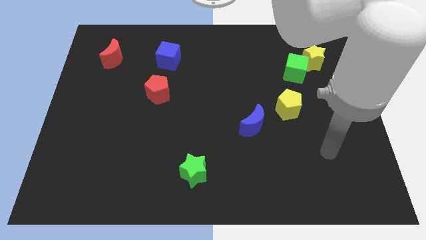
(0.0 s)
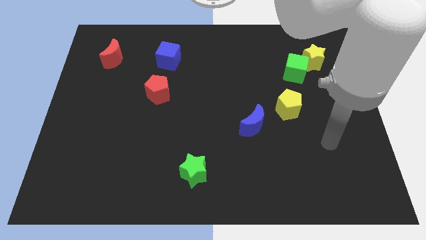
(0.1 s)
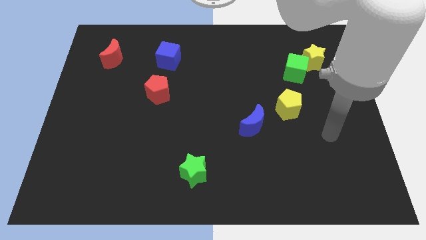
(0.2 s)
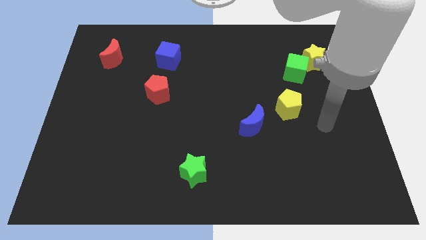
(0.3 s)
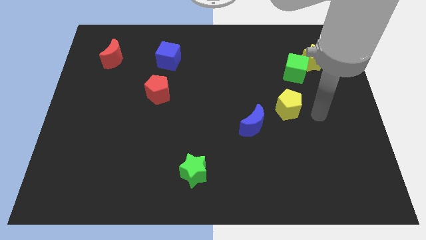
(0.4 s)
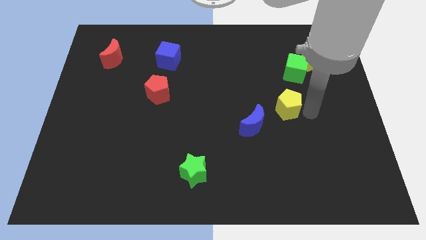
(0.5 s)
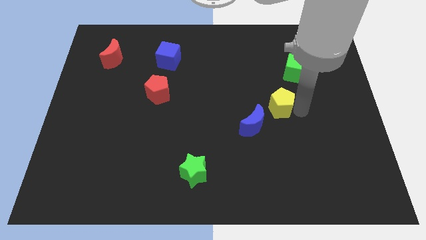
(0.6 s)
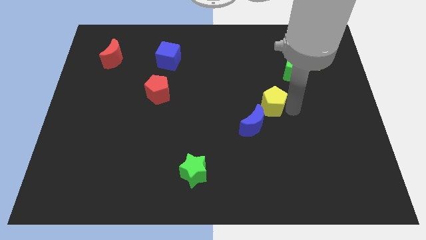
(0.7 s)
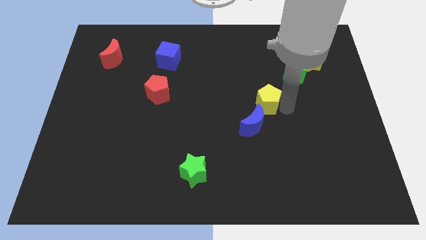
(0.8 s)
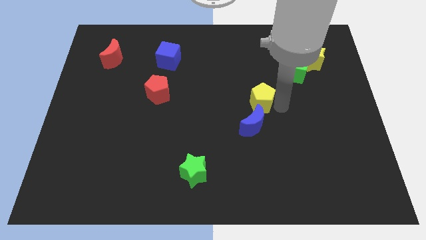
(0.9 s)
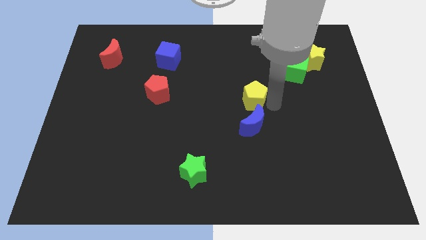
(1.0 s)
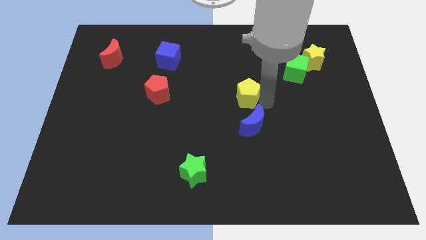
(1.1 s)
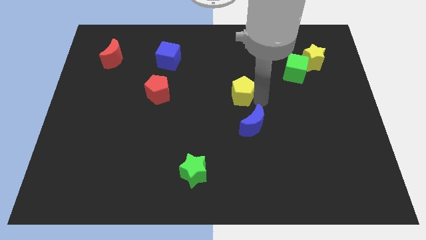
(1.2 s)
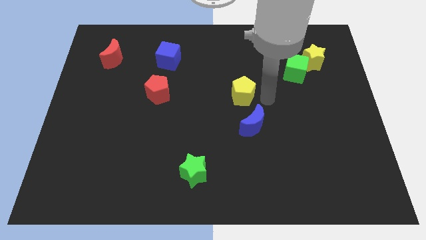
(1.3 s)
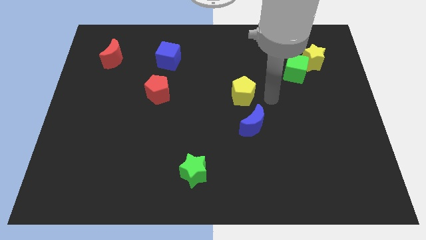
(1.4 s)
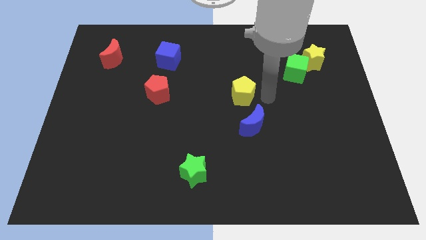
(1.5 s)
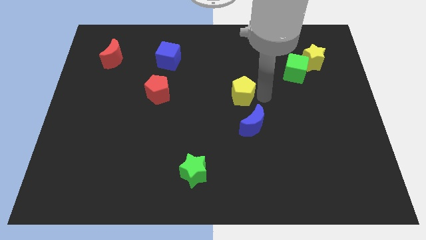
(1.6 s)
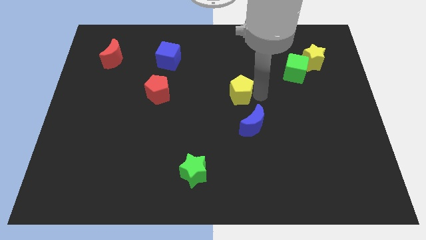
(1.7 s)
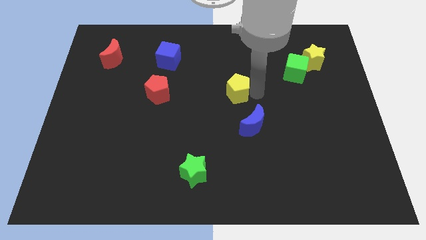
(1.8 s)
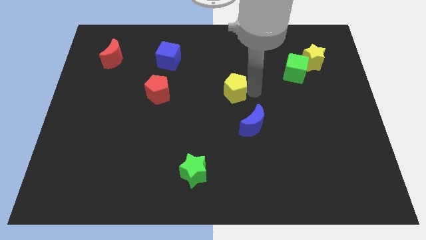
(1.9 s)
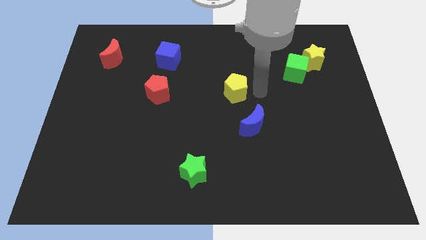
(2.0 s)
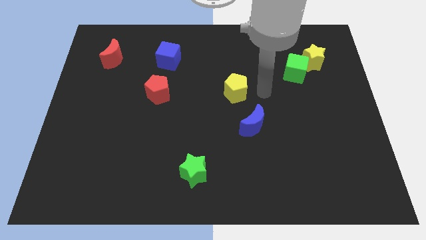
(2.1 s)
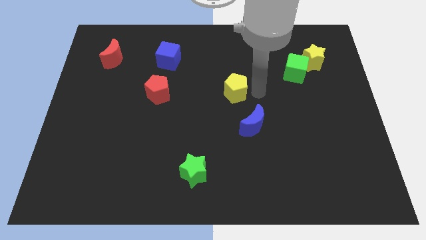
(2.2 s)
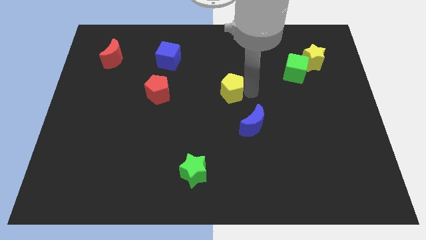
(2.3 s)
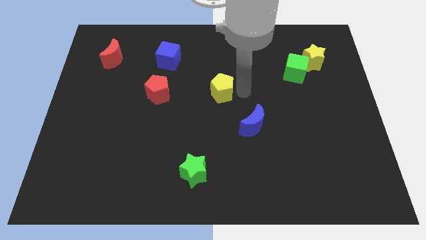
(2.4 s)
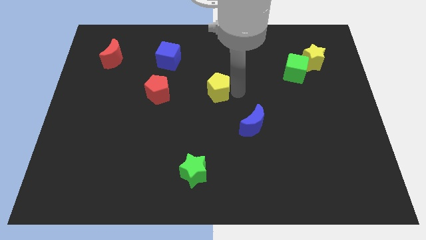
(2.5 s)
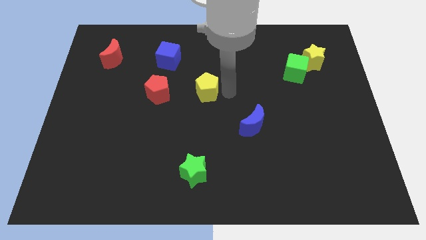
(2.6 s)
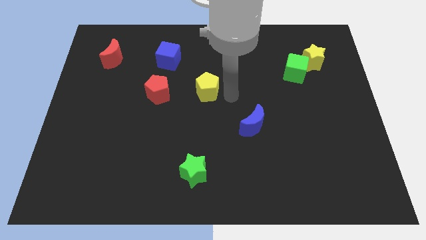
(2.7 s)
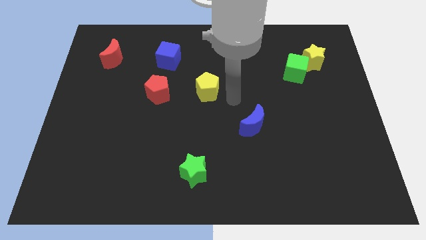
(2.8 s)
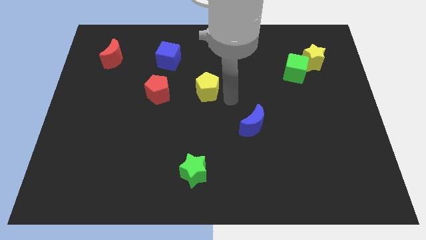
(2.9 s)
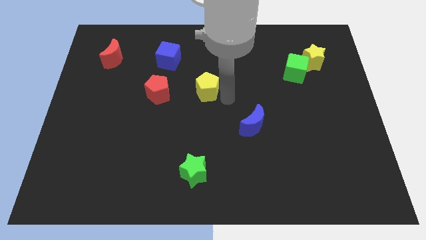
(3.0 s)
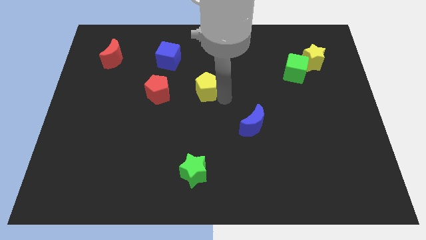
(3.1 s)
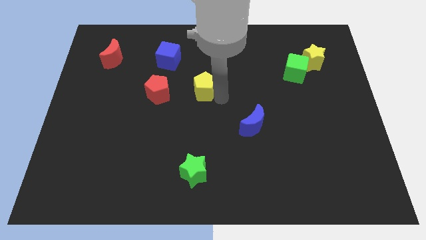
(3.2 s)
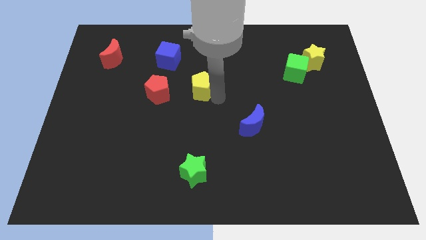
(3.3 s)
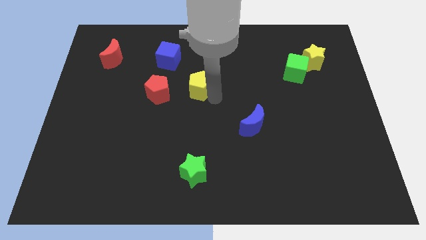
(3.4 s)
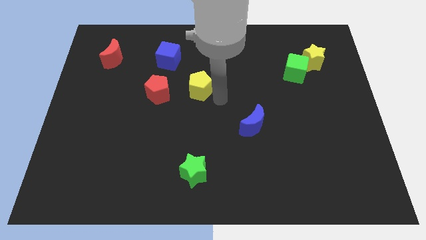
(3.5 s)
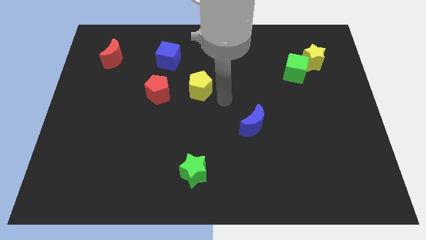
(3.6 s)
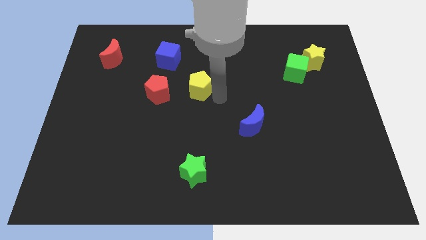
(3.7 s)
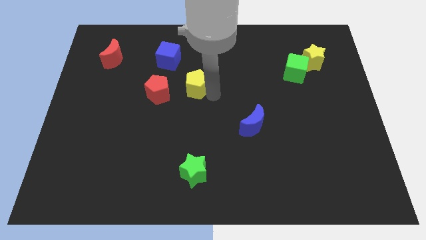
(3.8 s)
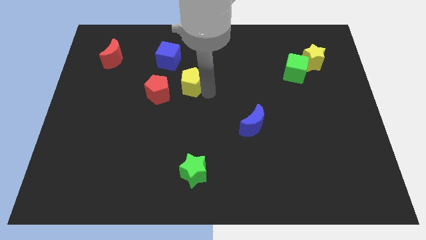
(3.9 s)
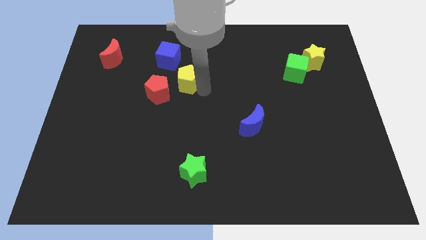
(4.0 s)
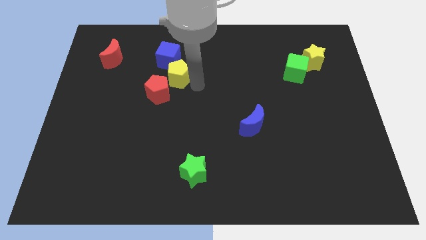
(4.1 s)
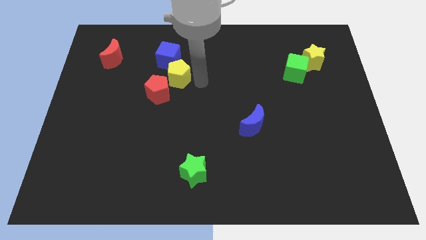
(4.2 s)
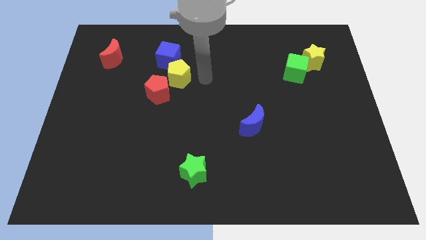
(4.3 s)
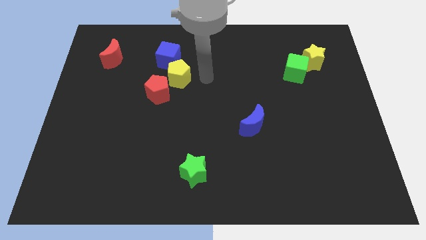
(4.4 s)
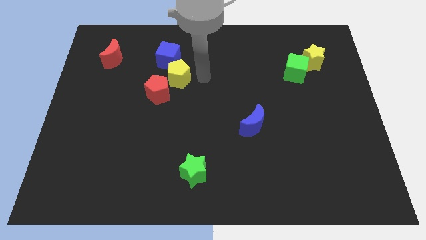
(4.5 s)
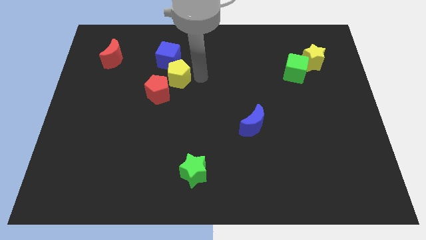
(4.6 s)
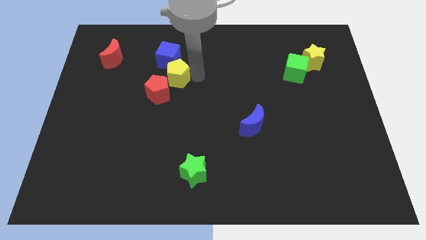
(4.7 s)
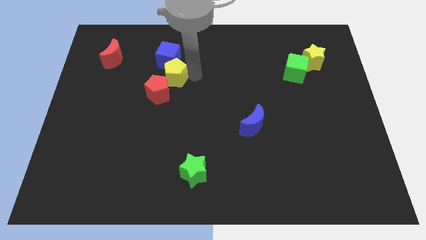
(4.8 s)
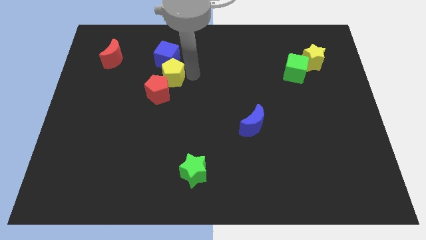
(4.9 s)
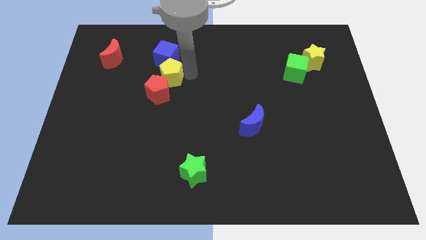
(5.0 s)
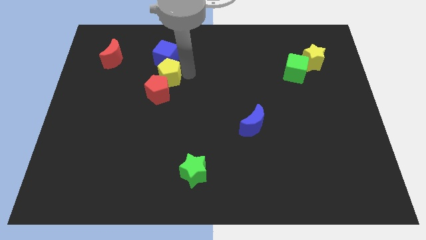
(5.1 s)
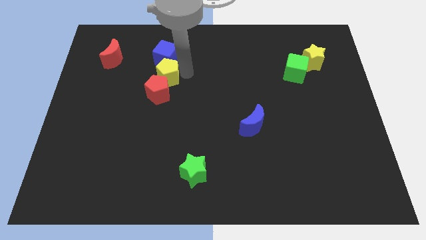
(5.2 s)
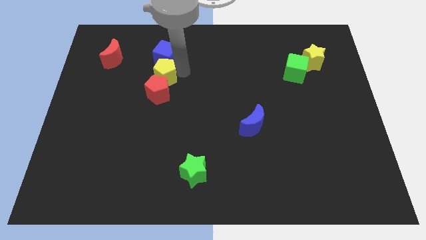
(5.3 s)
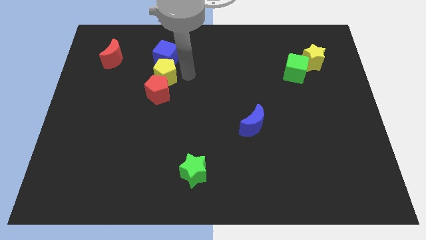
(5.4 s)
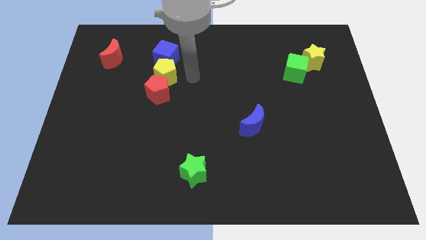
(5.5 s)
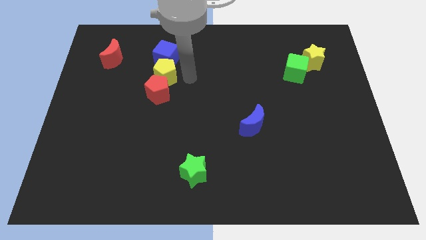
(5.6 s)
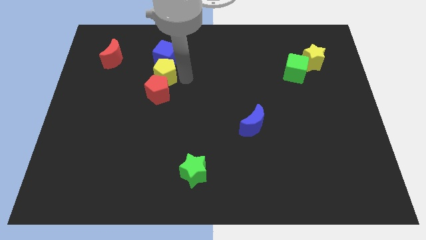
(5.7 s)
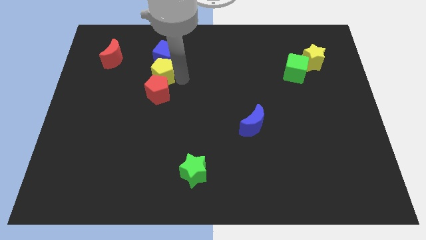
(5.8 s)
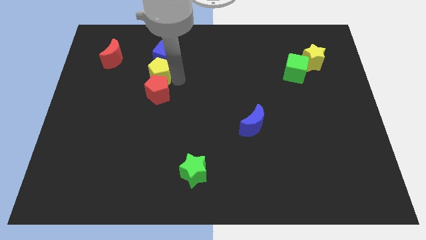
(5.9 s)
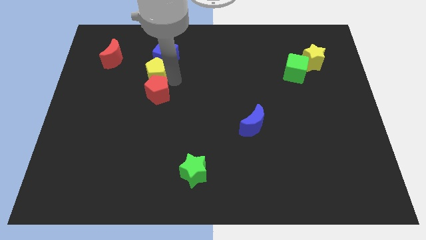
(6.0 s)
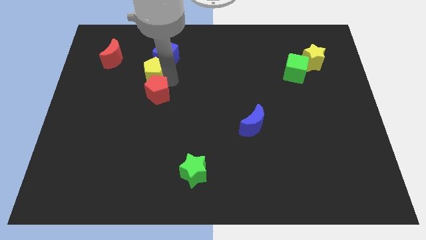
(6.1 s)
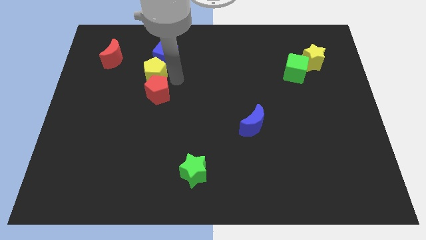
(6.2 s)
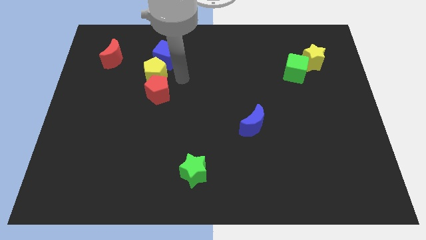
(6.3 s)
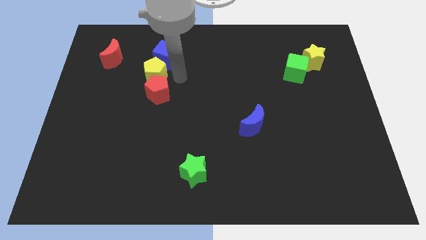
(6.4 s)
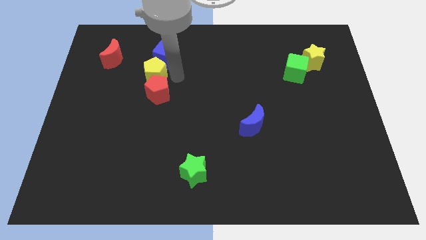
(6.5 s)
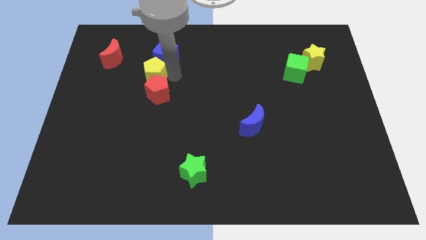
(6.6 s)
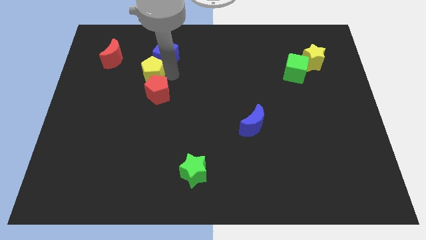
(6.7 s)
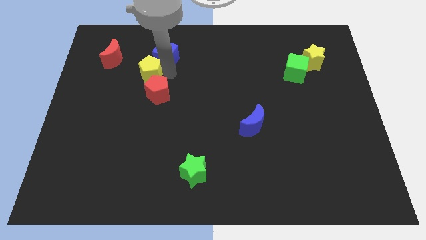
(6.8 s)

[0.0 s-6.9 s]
push the yellow pentagon to the bottom right of the red moon
